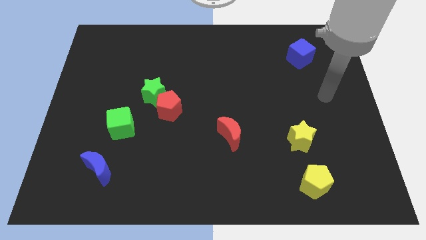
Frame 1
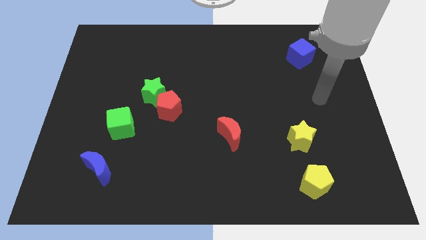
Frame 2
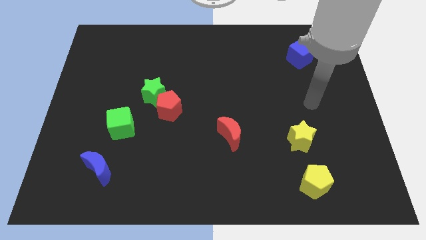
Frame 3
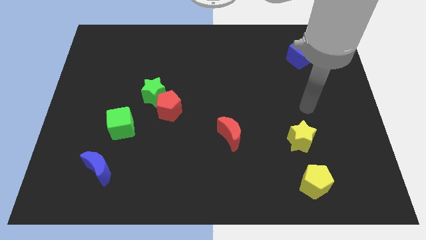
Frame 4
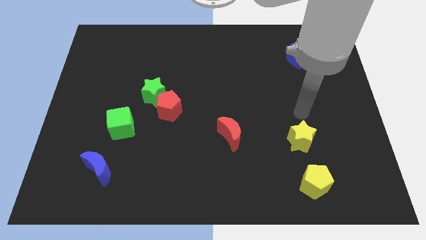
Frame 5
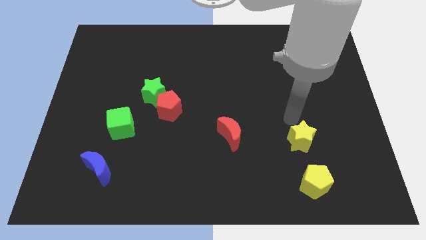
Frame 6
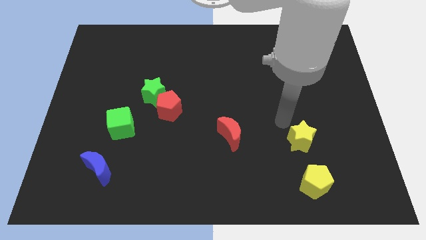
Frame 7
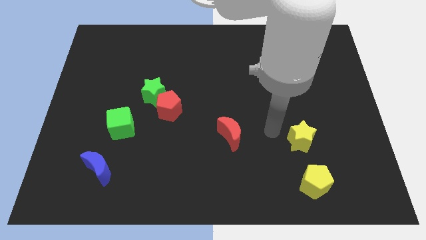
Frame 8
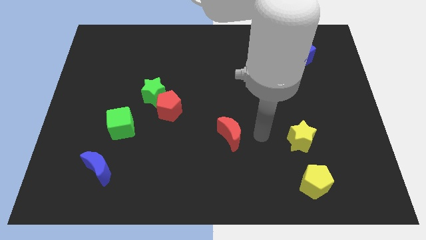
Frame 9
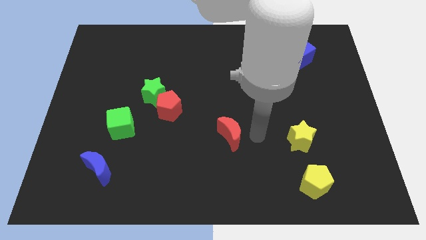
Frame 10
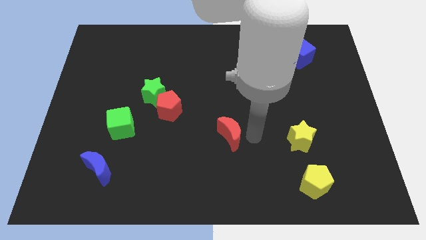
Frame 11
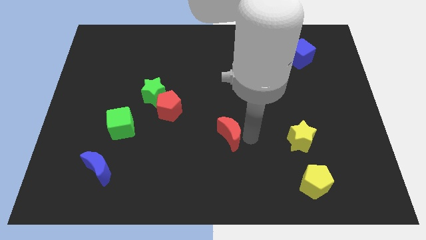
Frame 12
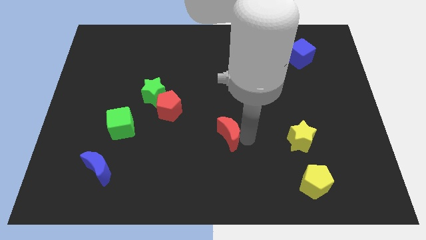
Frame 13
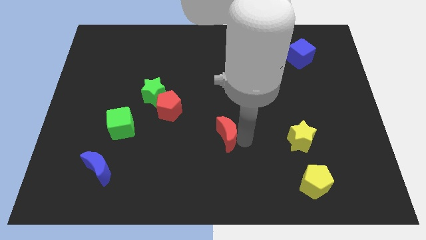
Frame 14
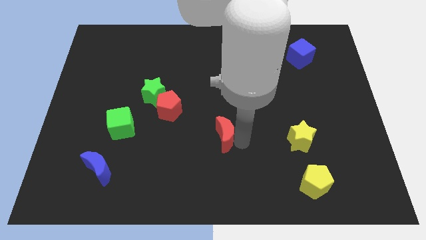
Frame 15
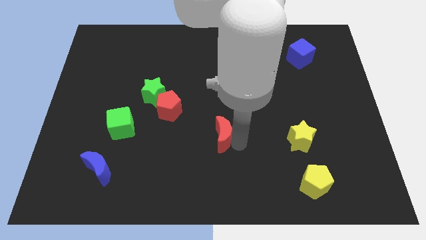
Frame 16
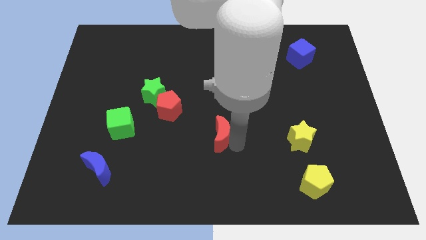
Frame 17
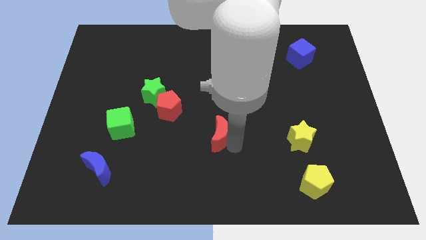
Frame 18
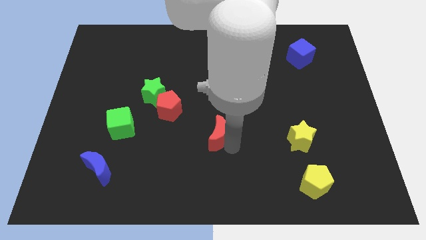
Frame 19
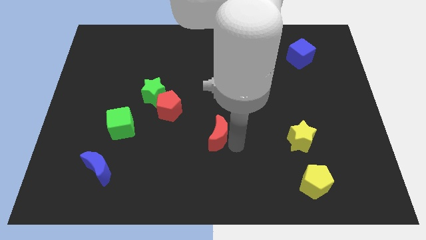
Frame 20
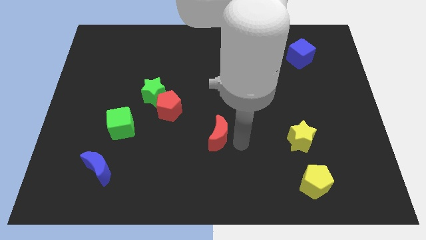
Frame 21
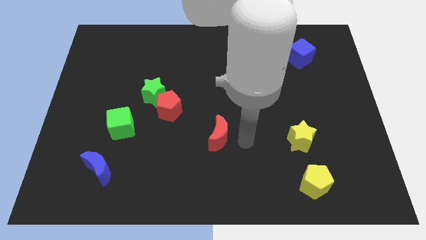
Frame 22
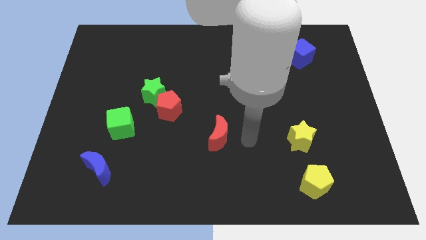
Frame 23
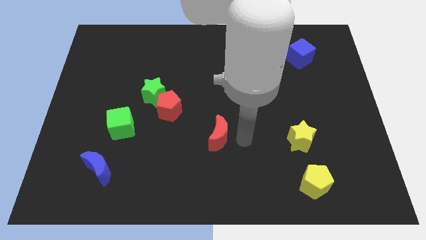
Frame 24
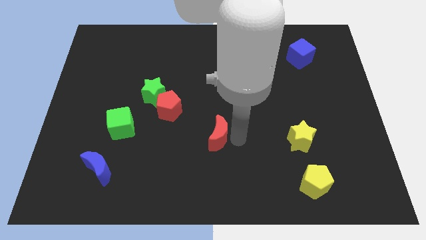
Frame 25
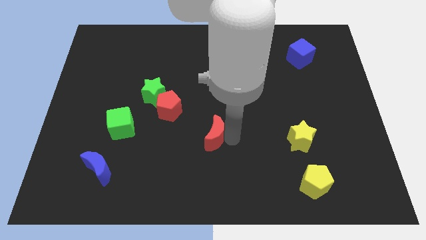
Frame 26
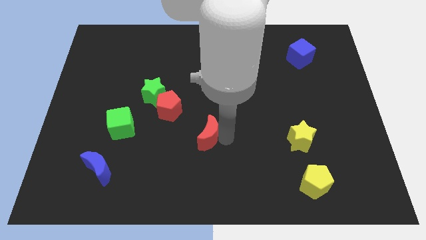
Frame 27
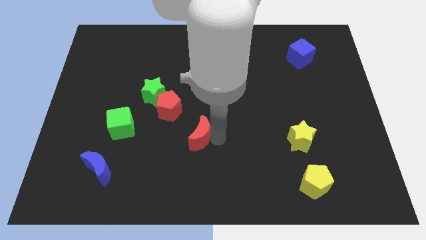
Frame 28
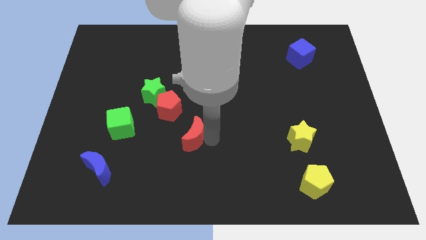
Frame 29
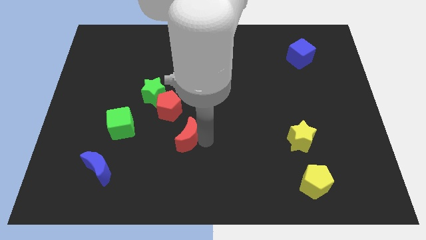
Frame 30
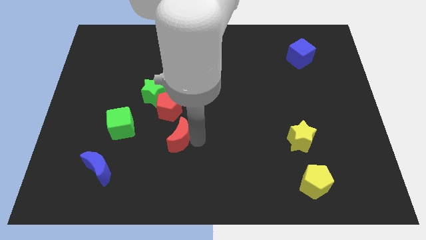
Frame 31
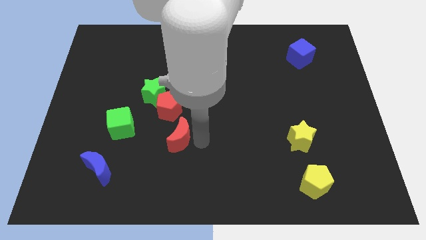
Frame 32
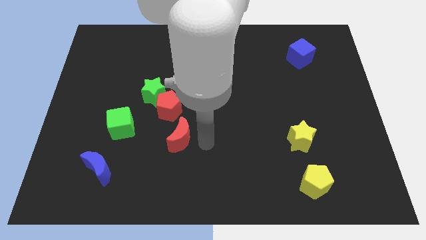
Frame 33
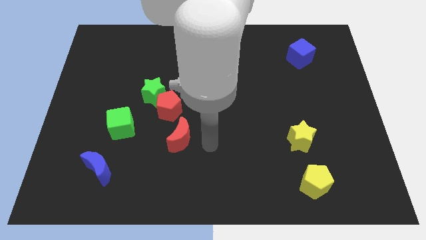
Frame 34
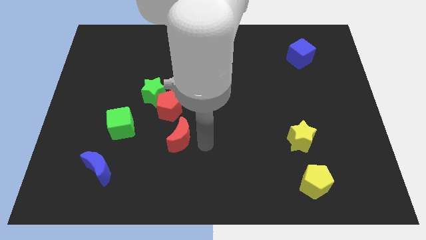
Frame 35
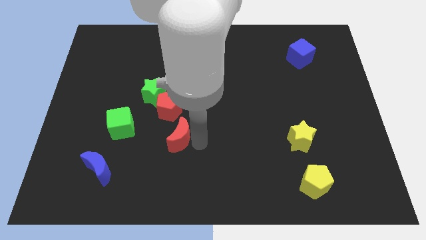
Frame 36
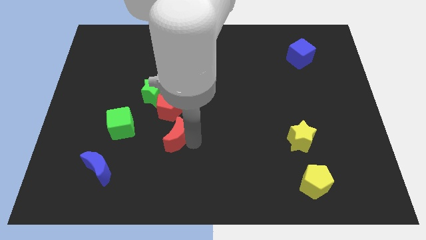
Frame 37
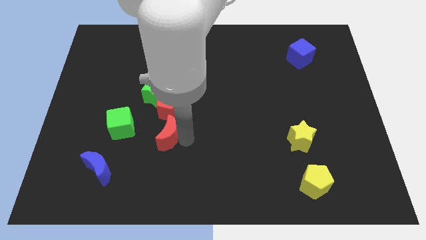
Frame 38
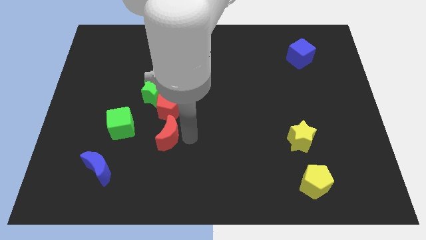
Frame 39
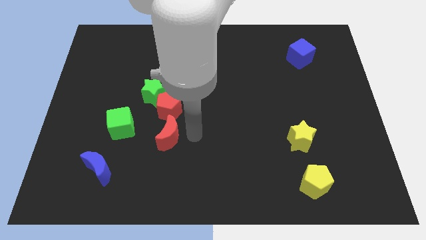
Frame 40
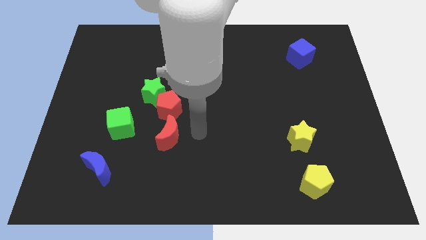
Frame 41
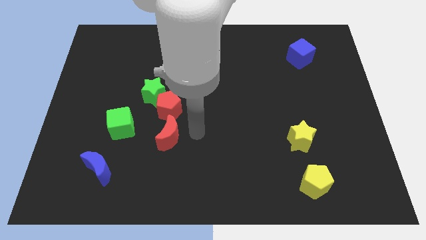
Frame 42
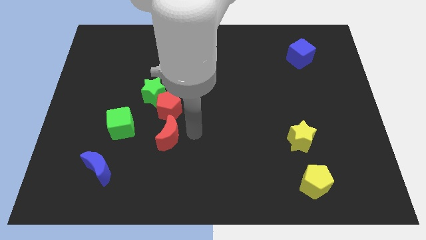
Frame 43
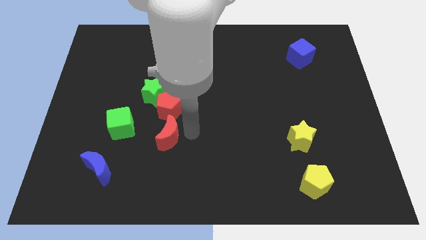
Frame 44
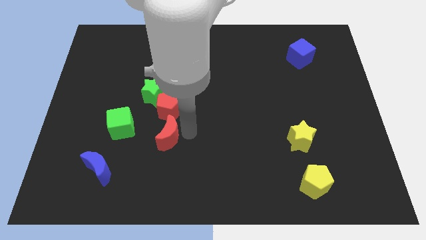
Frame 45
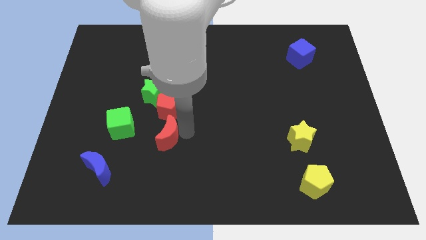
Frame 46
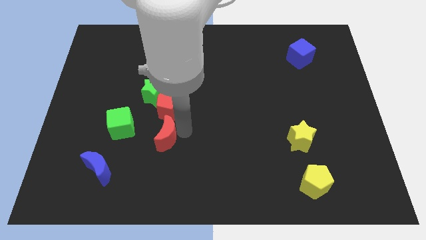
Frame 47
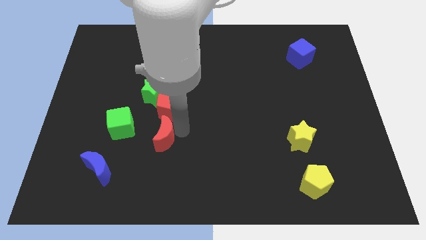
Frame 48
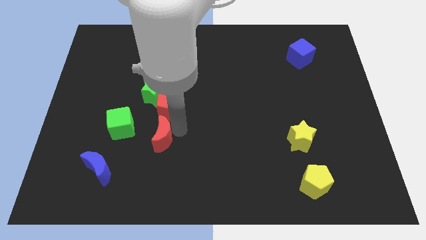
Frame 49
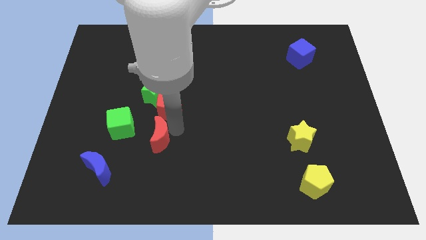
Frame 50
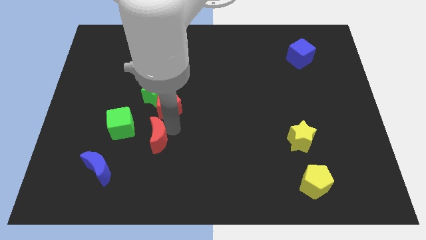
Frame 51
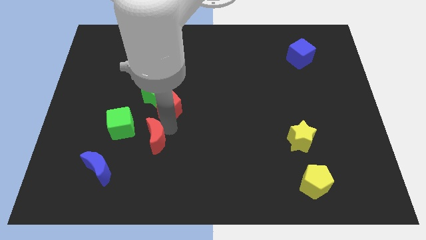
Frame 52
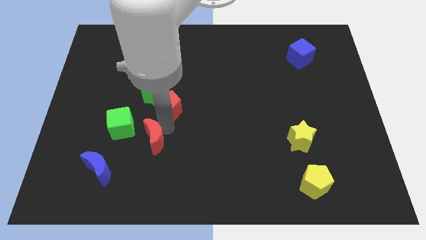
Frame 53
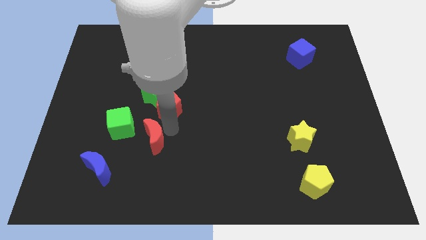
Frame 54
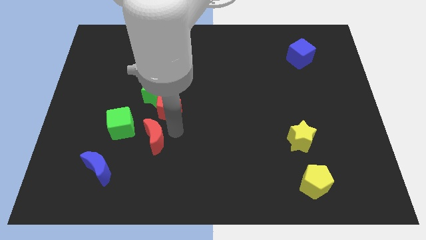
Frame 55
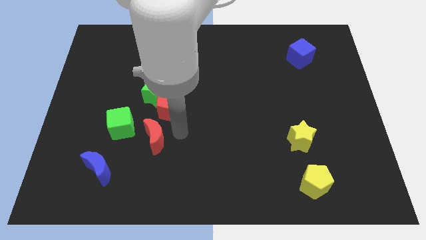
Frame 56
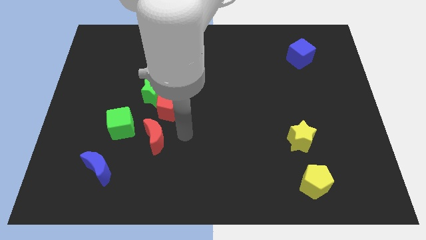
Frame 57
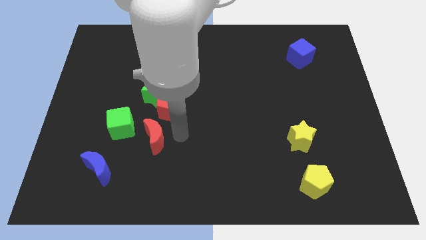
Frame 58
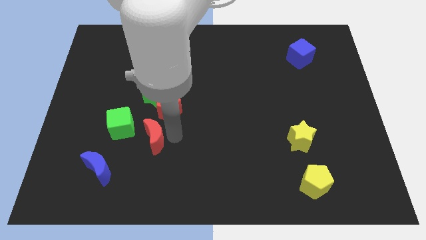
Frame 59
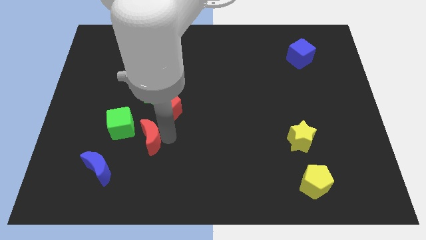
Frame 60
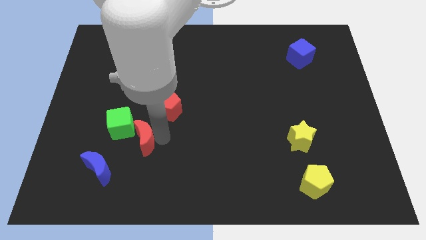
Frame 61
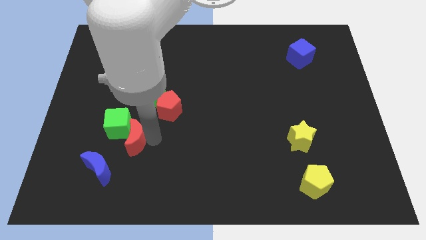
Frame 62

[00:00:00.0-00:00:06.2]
push the red moon to the left

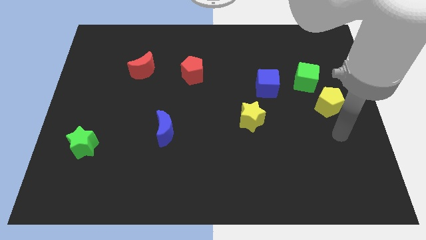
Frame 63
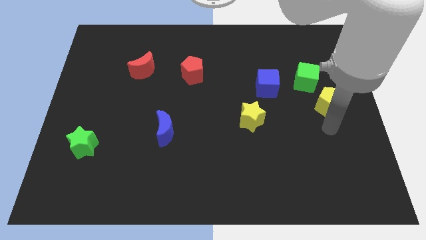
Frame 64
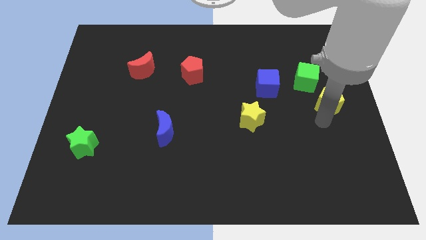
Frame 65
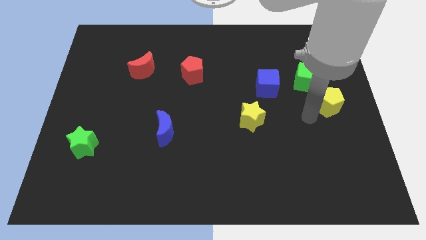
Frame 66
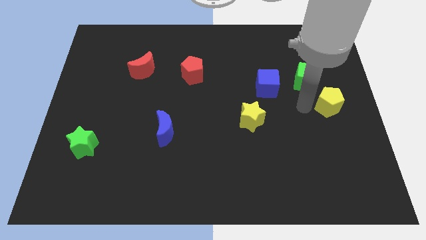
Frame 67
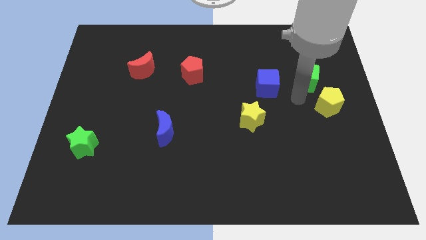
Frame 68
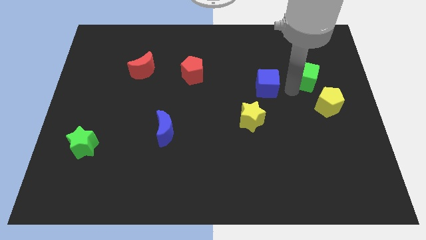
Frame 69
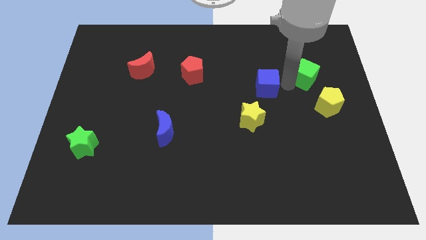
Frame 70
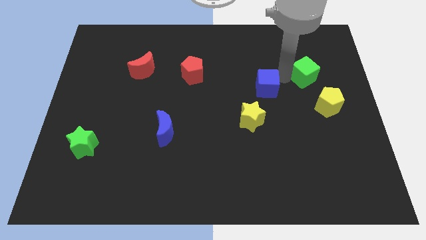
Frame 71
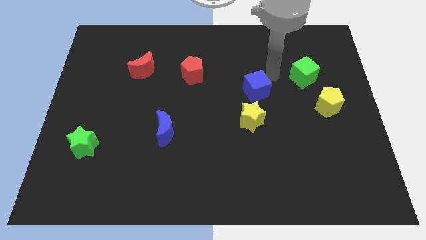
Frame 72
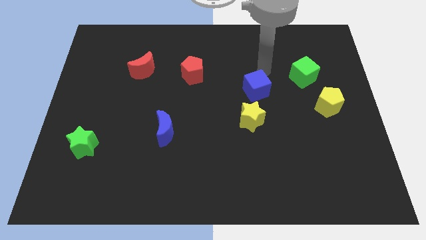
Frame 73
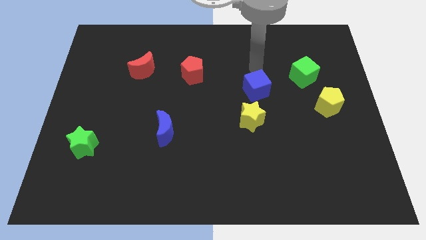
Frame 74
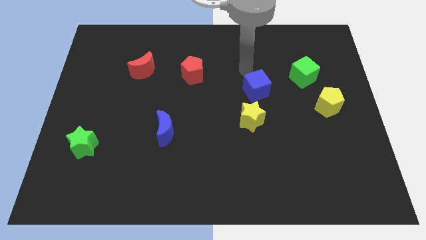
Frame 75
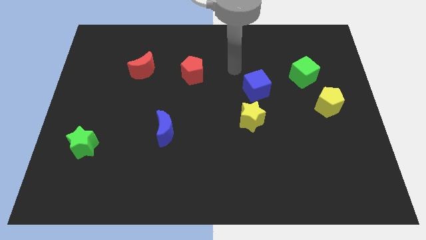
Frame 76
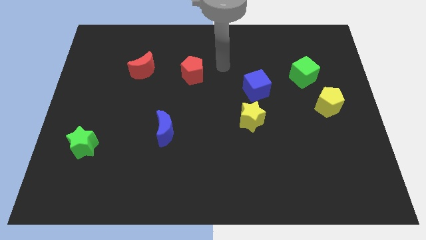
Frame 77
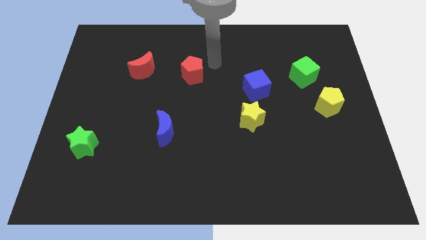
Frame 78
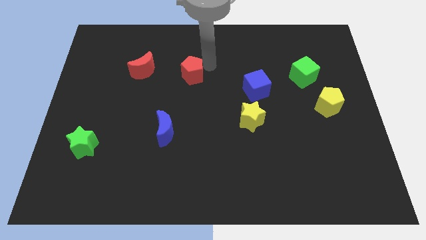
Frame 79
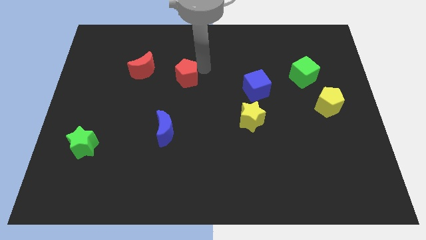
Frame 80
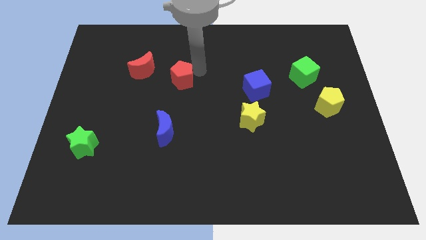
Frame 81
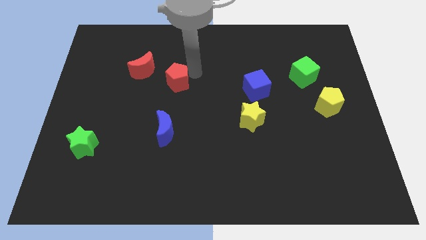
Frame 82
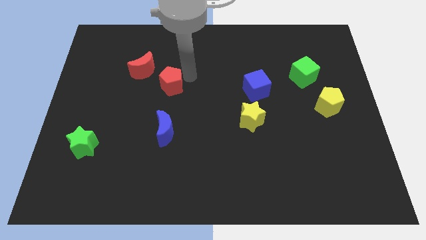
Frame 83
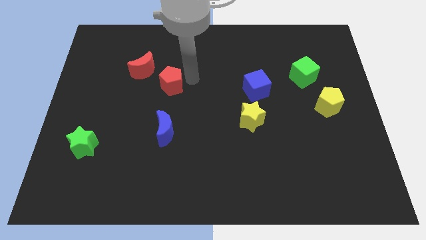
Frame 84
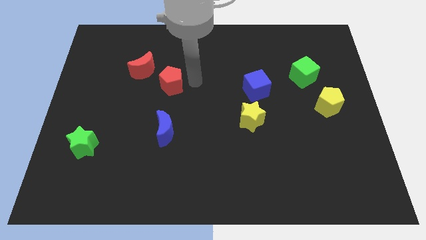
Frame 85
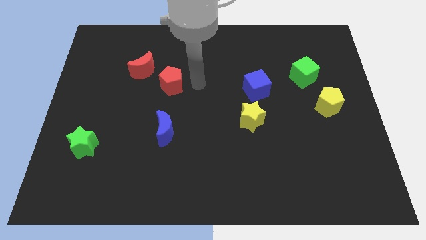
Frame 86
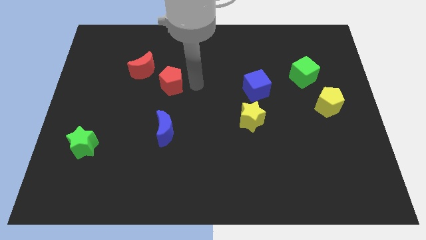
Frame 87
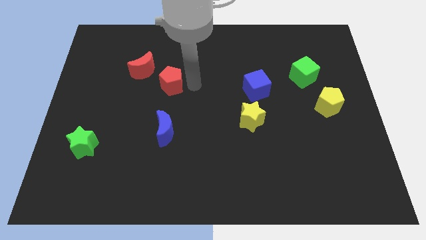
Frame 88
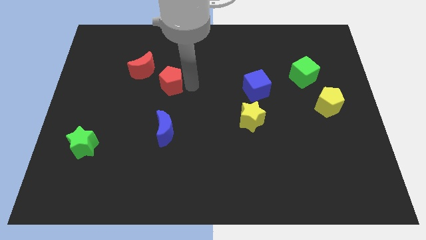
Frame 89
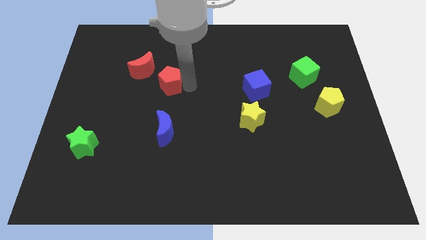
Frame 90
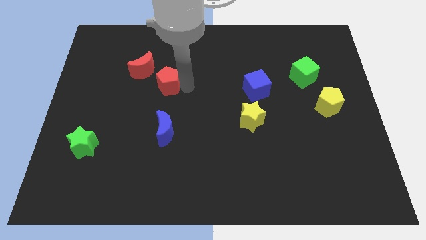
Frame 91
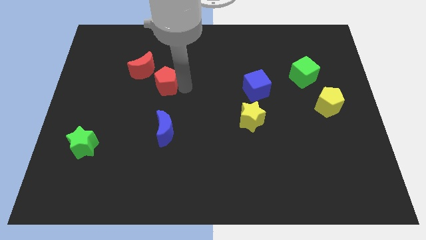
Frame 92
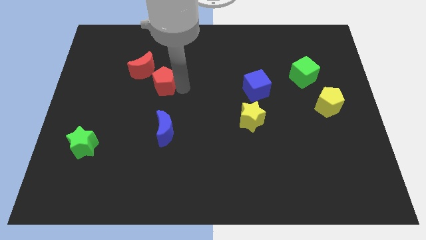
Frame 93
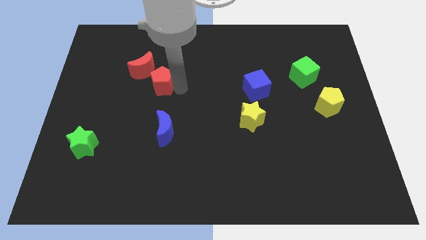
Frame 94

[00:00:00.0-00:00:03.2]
slide the red pentagon to the left a little
